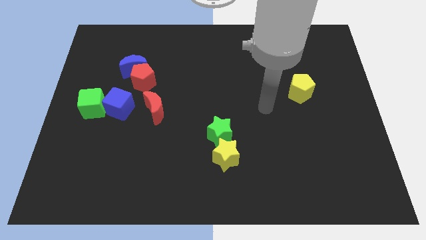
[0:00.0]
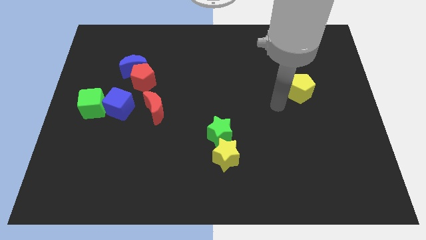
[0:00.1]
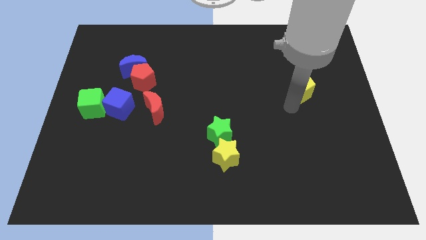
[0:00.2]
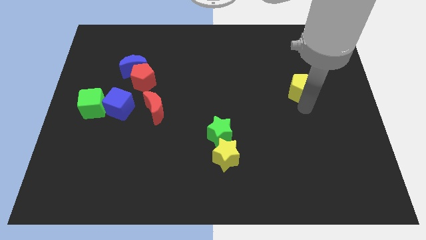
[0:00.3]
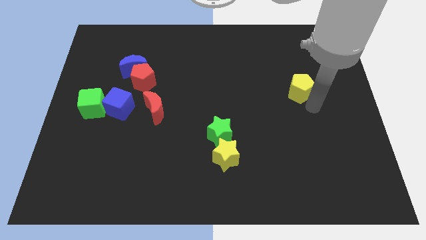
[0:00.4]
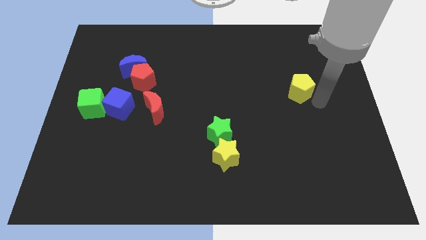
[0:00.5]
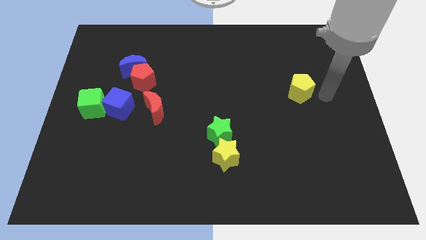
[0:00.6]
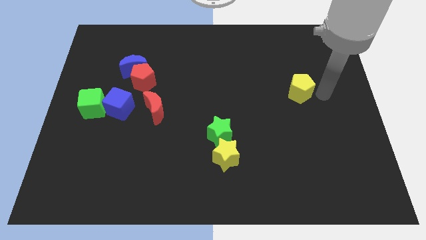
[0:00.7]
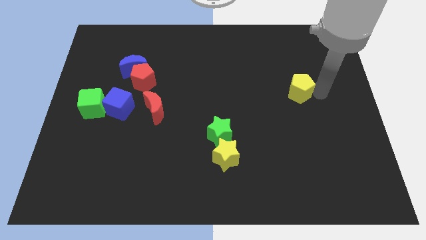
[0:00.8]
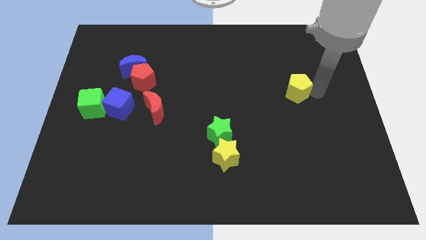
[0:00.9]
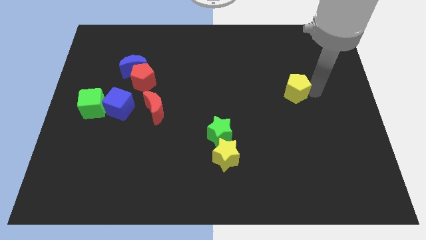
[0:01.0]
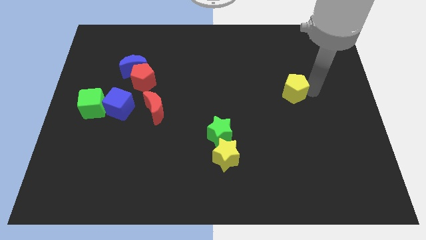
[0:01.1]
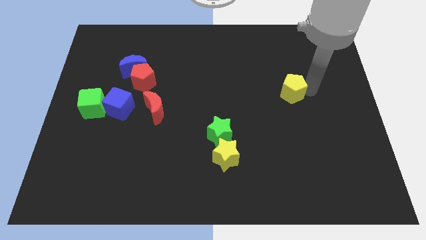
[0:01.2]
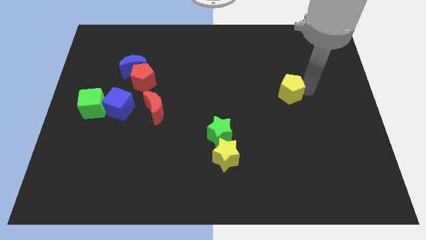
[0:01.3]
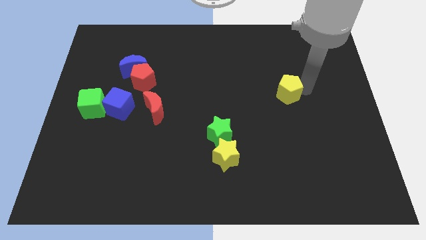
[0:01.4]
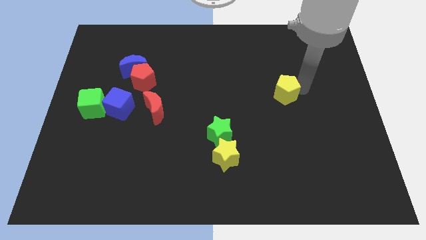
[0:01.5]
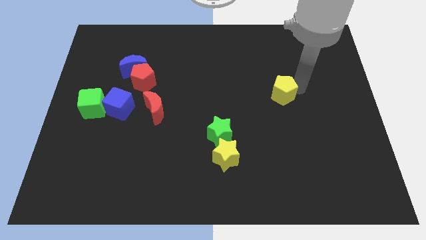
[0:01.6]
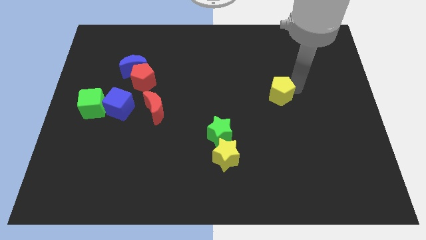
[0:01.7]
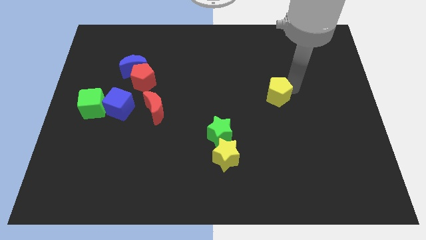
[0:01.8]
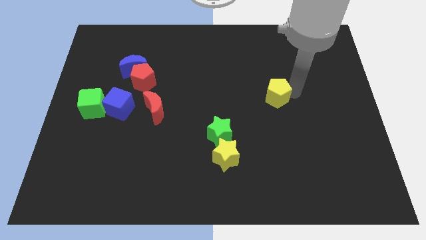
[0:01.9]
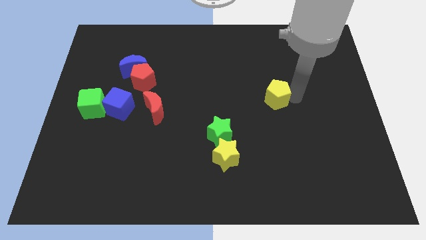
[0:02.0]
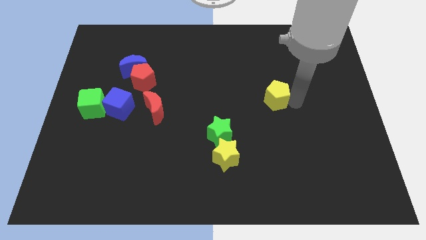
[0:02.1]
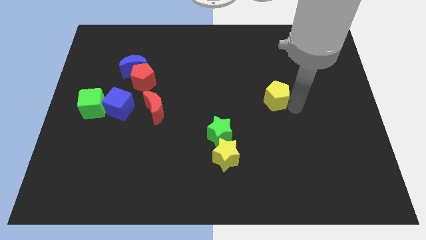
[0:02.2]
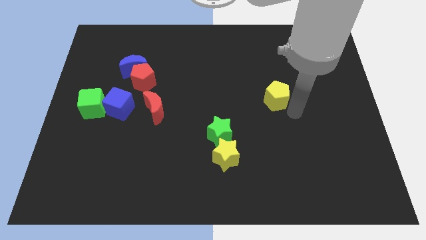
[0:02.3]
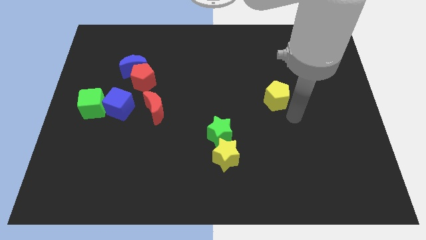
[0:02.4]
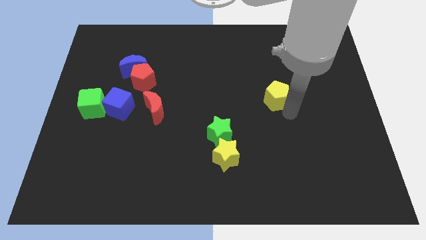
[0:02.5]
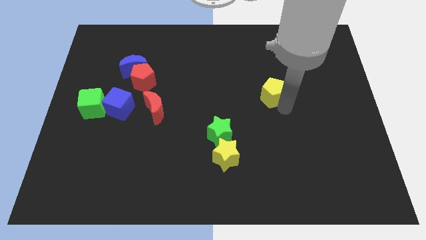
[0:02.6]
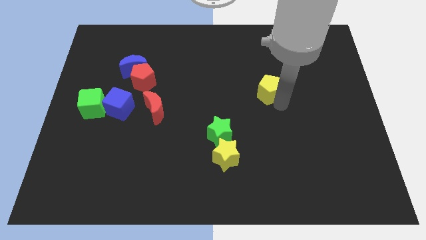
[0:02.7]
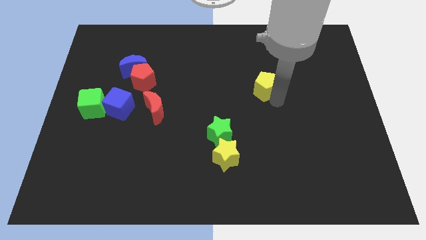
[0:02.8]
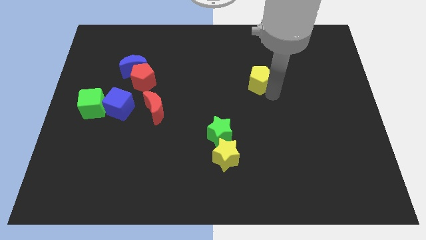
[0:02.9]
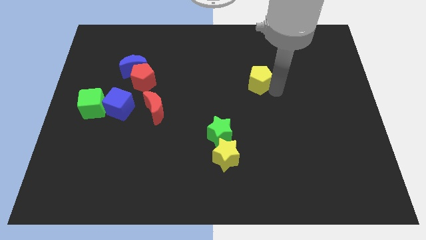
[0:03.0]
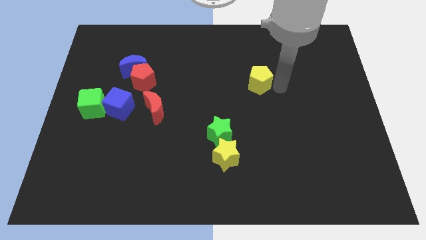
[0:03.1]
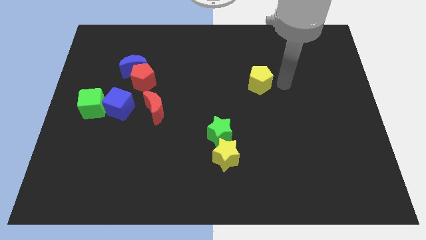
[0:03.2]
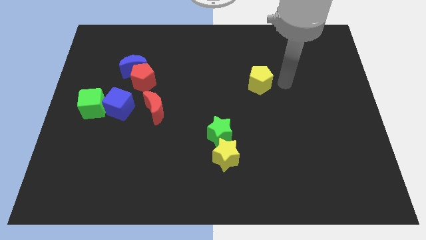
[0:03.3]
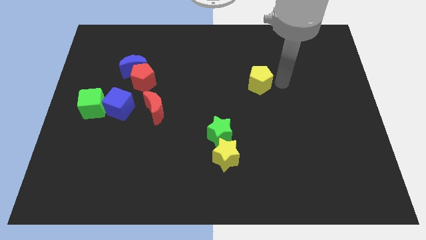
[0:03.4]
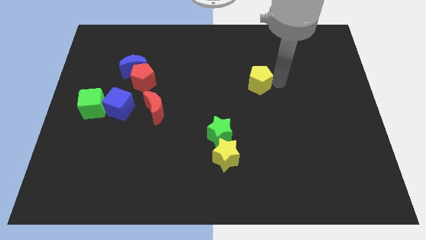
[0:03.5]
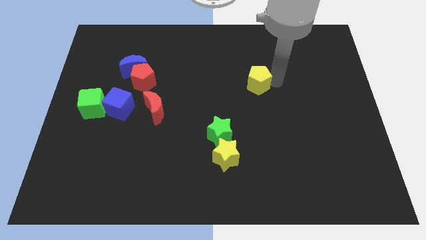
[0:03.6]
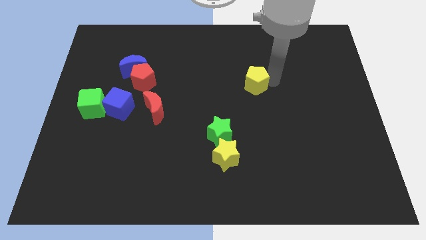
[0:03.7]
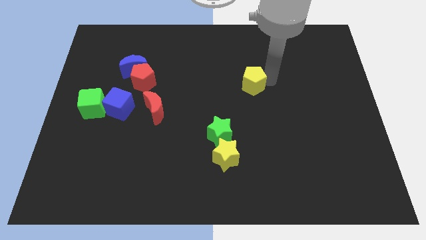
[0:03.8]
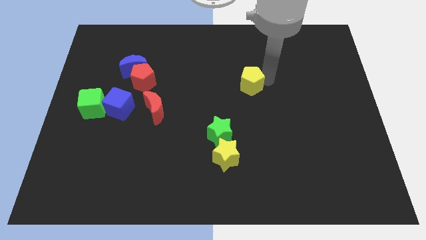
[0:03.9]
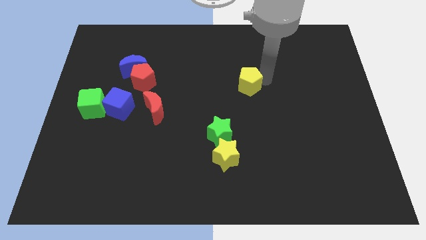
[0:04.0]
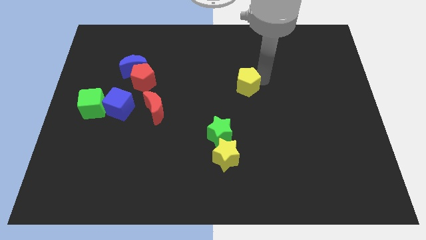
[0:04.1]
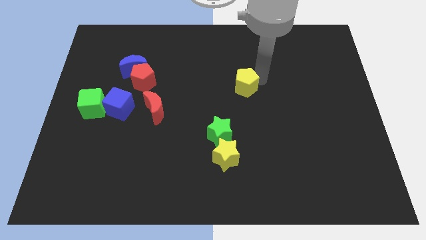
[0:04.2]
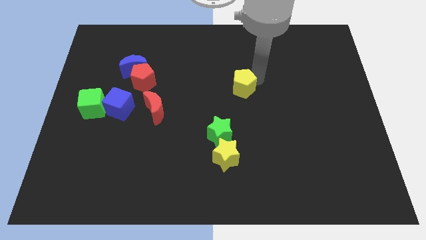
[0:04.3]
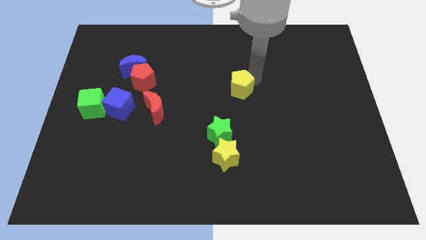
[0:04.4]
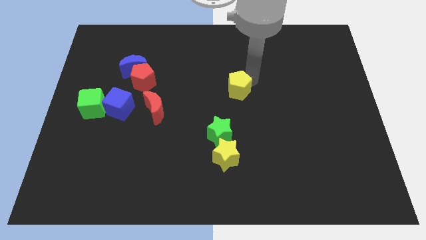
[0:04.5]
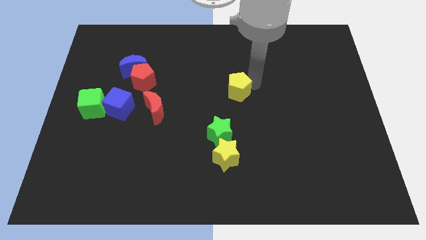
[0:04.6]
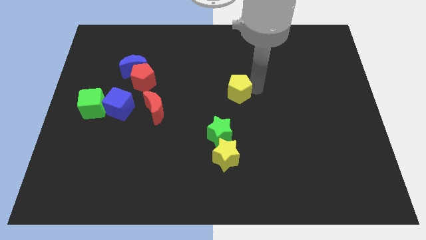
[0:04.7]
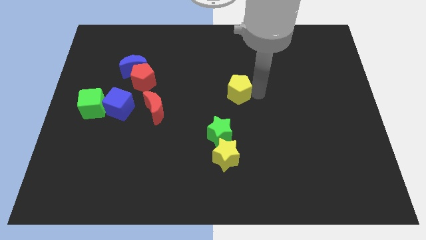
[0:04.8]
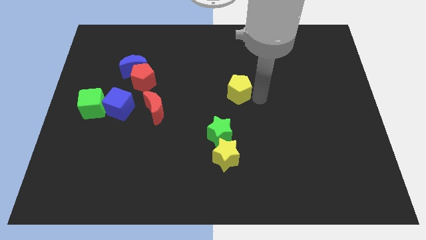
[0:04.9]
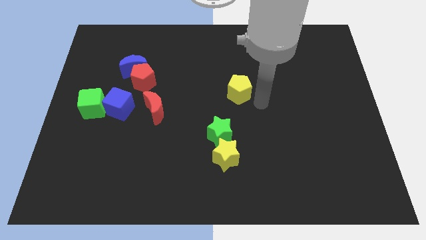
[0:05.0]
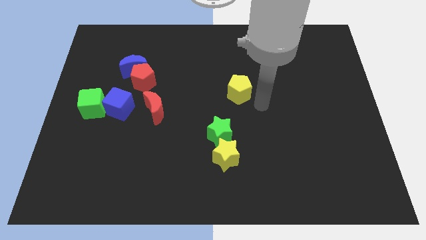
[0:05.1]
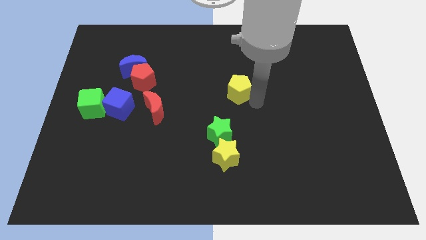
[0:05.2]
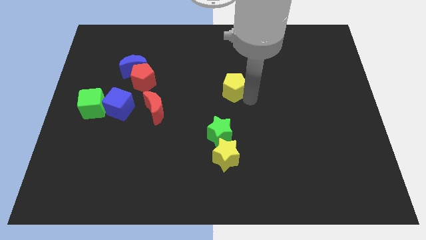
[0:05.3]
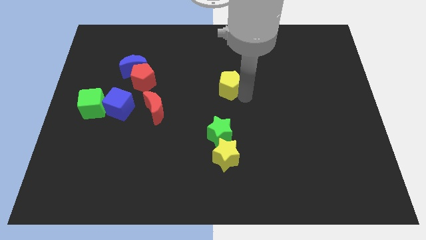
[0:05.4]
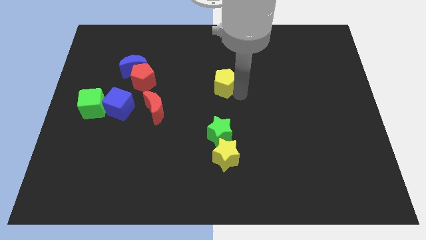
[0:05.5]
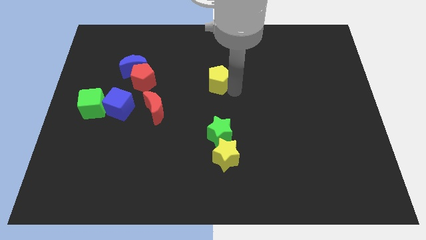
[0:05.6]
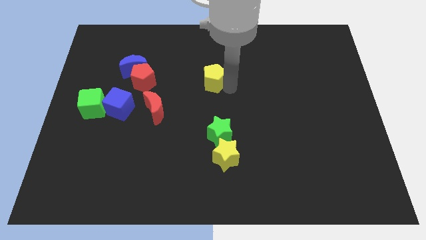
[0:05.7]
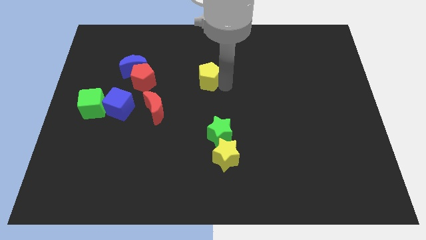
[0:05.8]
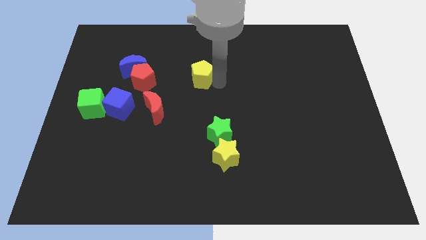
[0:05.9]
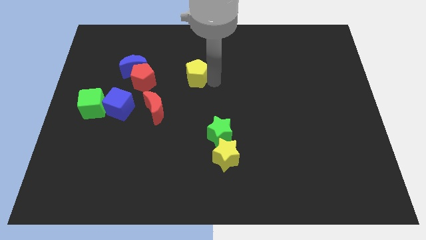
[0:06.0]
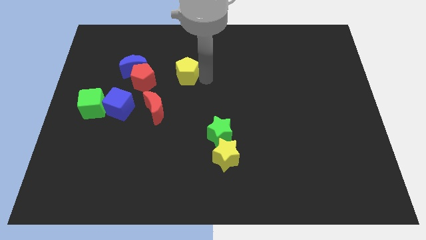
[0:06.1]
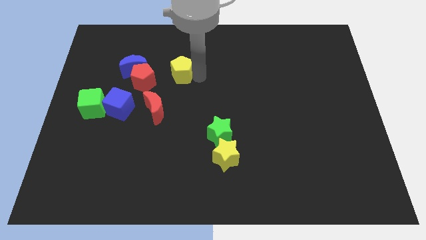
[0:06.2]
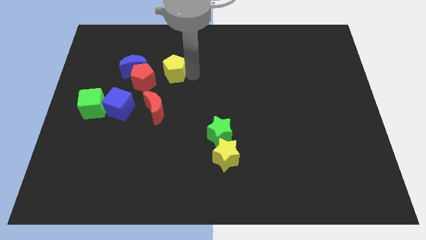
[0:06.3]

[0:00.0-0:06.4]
slide the yellow pentagon to the top side of the red moon
